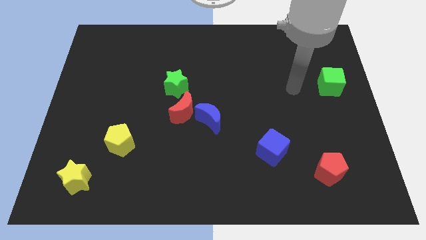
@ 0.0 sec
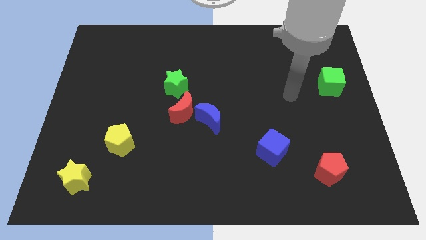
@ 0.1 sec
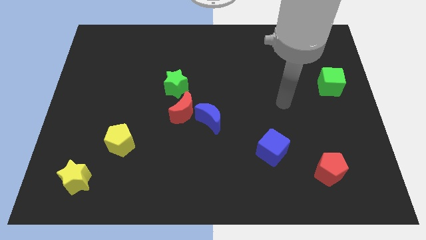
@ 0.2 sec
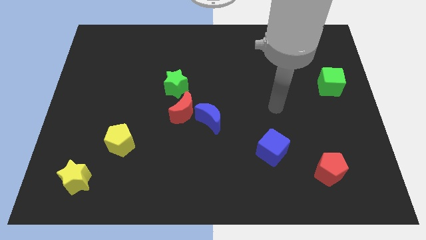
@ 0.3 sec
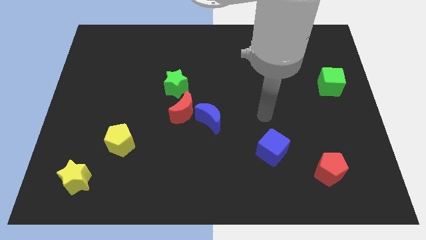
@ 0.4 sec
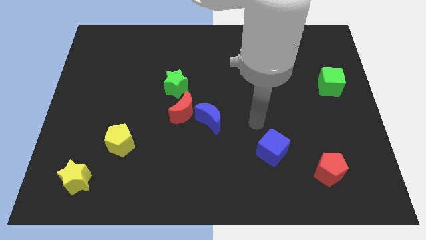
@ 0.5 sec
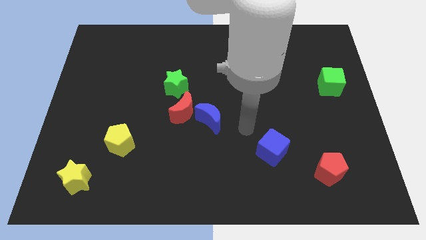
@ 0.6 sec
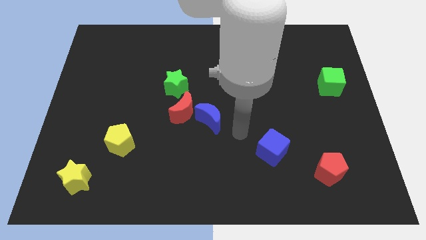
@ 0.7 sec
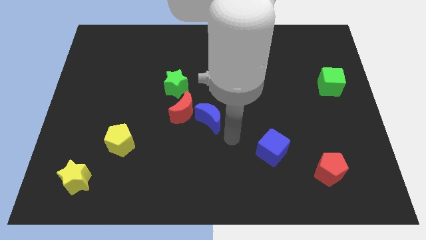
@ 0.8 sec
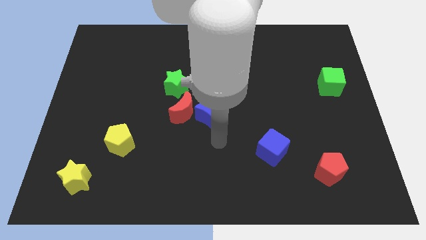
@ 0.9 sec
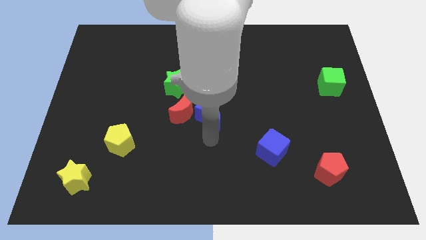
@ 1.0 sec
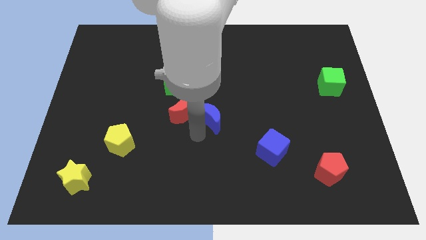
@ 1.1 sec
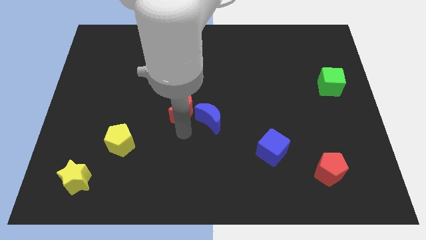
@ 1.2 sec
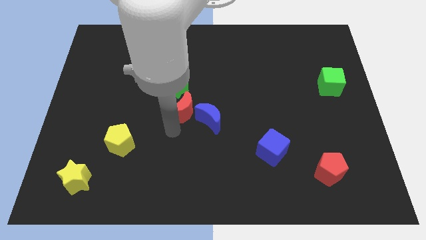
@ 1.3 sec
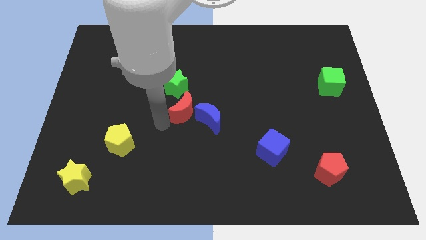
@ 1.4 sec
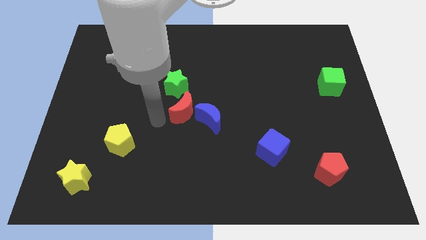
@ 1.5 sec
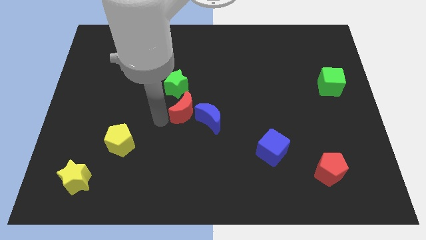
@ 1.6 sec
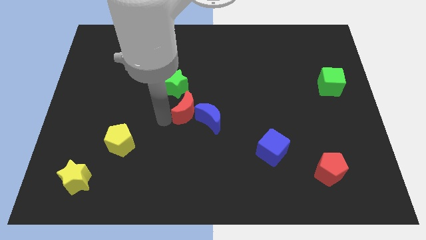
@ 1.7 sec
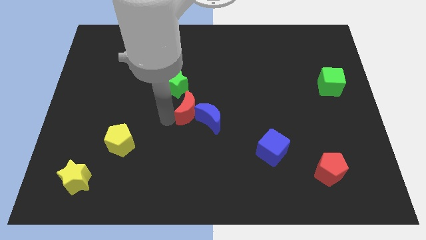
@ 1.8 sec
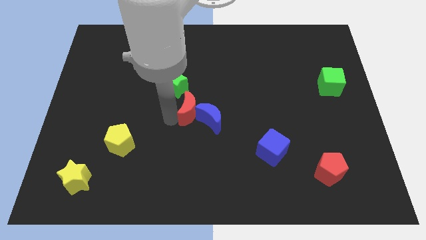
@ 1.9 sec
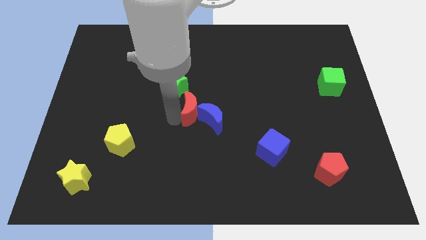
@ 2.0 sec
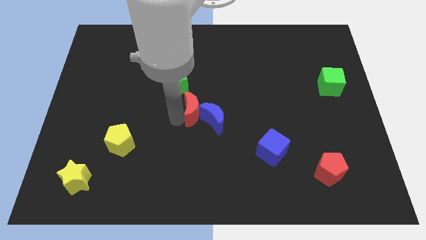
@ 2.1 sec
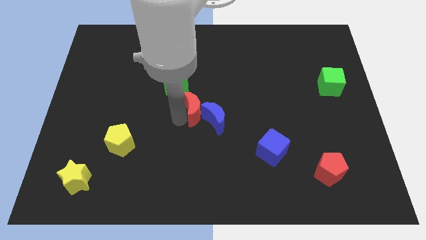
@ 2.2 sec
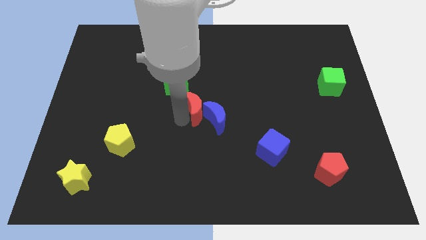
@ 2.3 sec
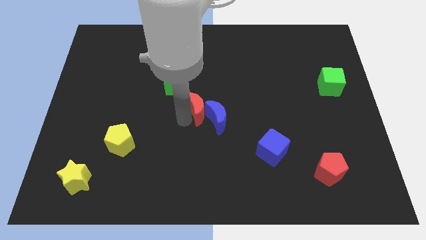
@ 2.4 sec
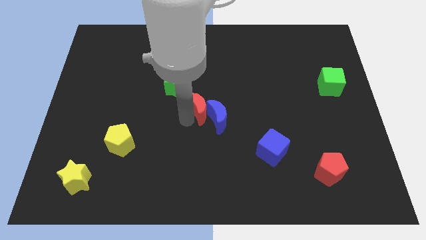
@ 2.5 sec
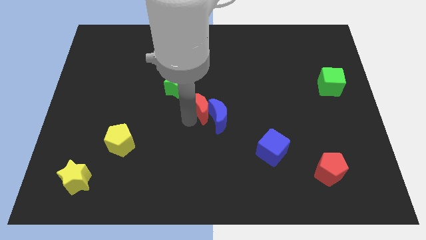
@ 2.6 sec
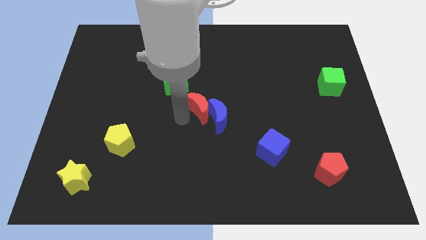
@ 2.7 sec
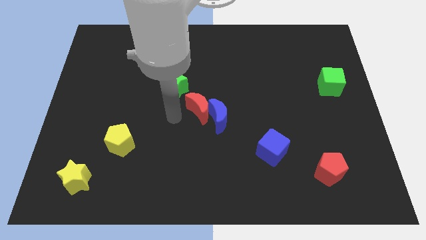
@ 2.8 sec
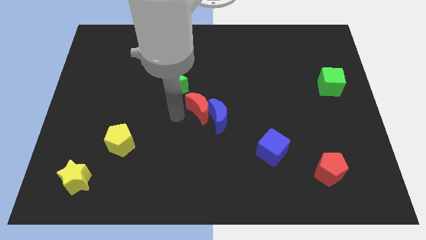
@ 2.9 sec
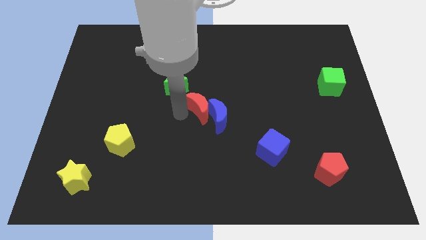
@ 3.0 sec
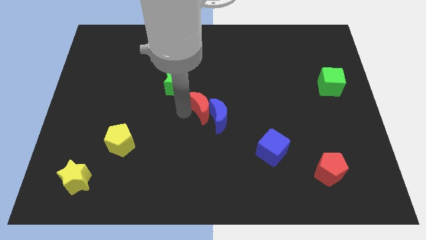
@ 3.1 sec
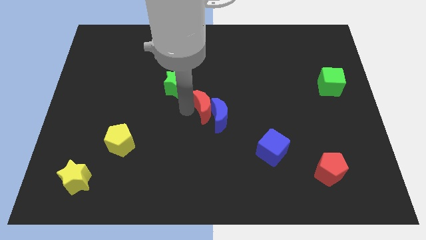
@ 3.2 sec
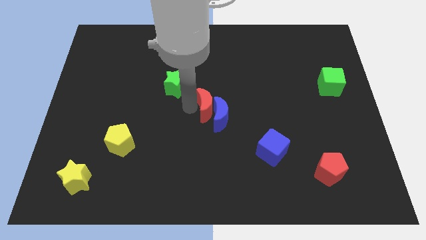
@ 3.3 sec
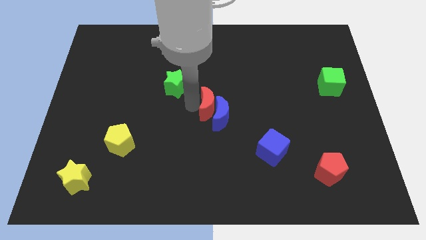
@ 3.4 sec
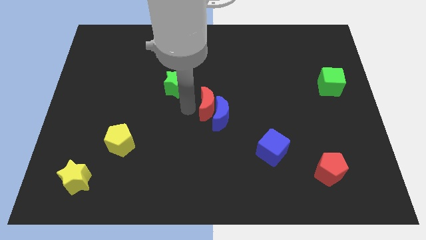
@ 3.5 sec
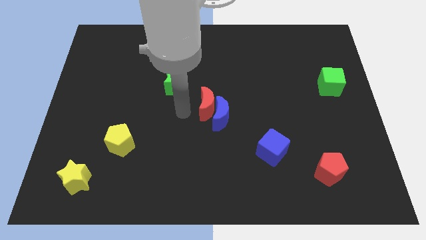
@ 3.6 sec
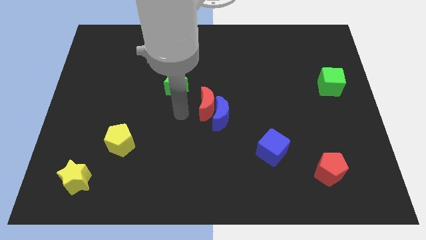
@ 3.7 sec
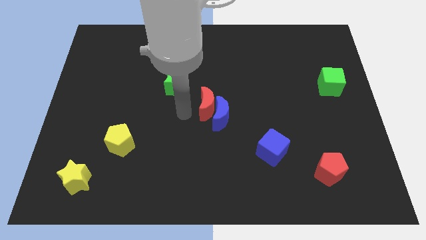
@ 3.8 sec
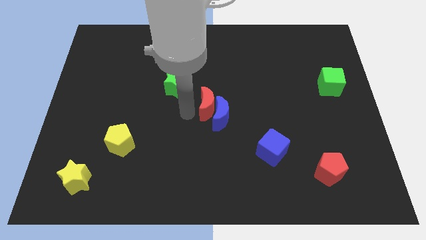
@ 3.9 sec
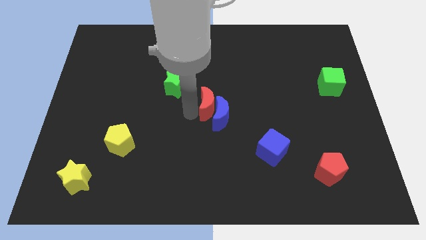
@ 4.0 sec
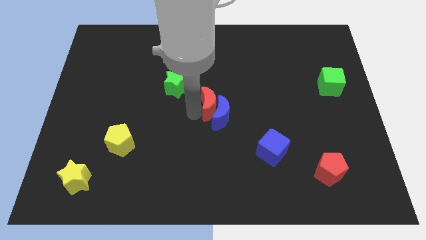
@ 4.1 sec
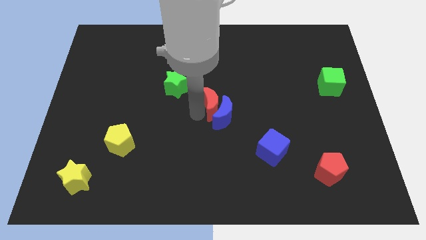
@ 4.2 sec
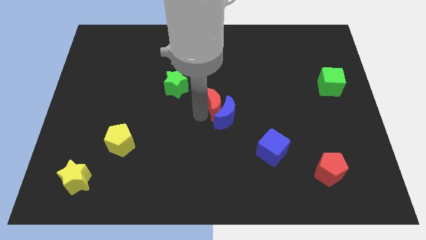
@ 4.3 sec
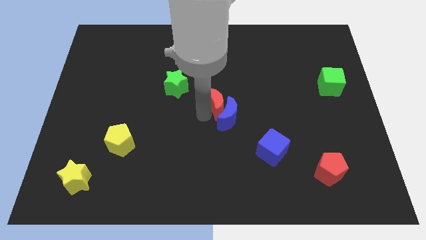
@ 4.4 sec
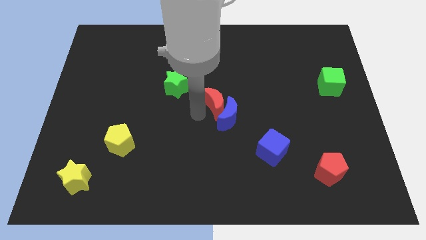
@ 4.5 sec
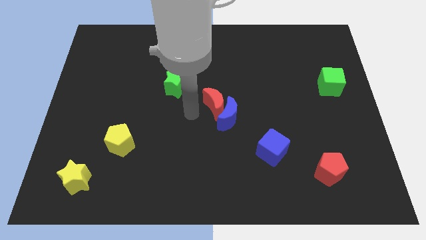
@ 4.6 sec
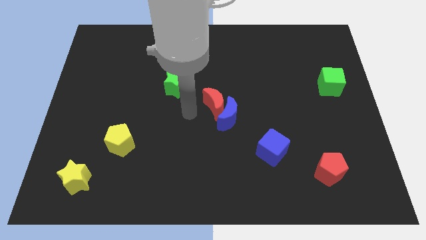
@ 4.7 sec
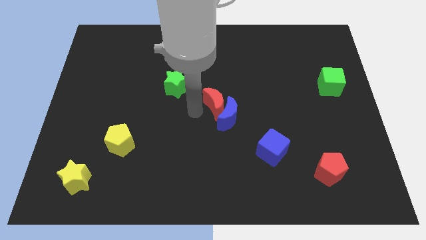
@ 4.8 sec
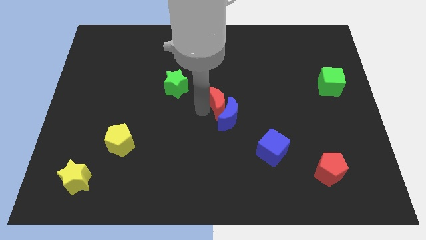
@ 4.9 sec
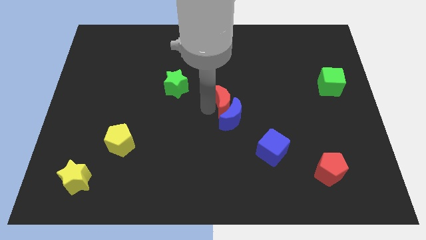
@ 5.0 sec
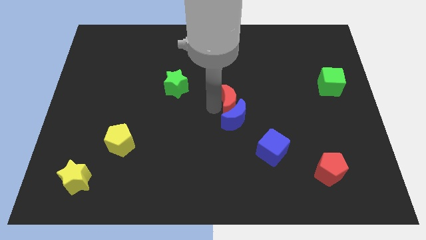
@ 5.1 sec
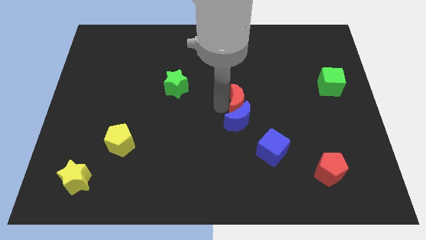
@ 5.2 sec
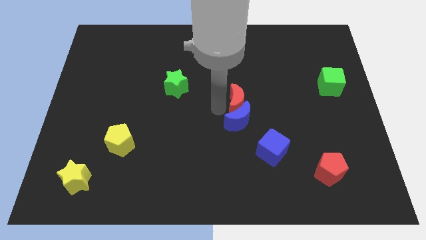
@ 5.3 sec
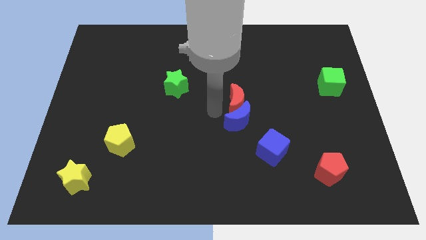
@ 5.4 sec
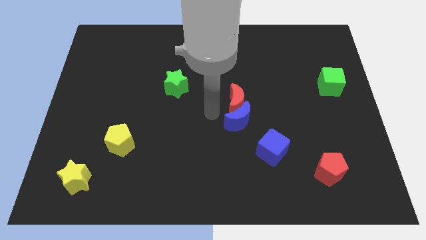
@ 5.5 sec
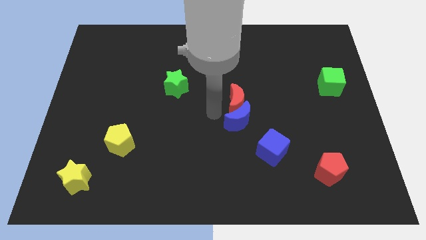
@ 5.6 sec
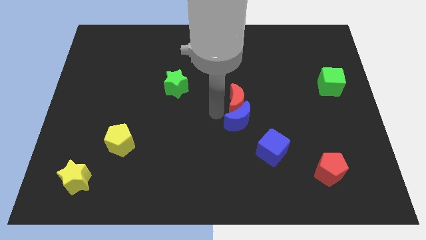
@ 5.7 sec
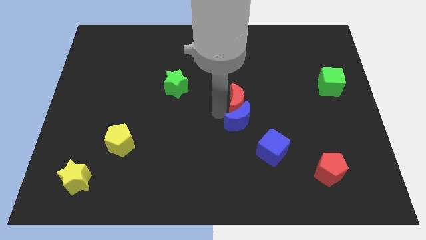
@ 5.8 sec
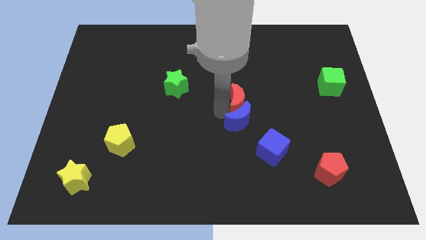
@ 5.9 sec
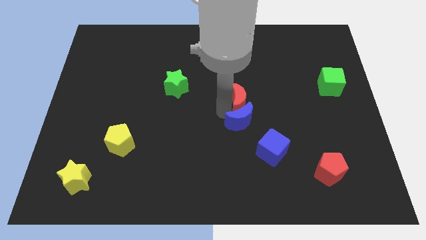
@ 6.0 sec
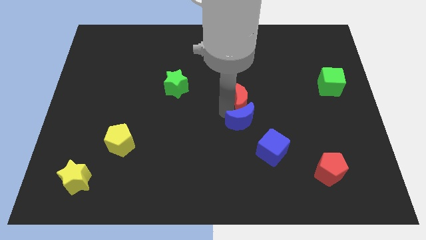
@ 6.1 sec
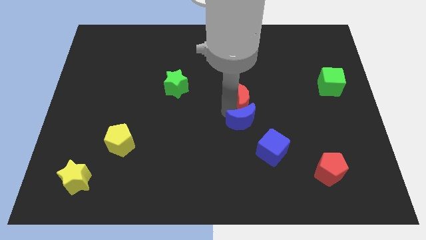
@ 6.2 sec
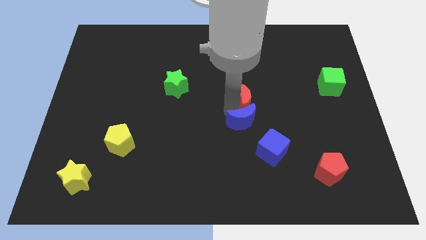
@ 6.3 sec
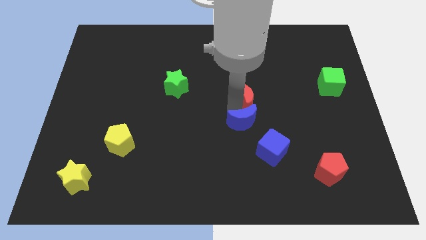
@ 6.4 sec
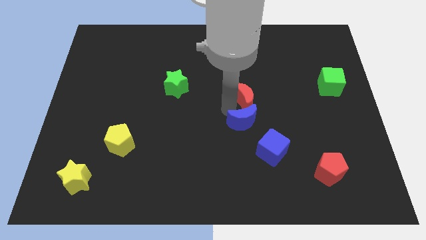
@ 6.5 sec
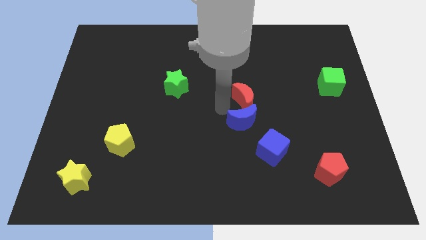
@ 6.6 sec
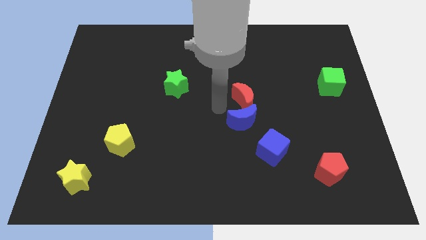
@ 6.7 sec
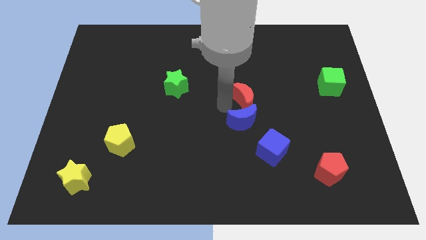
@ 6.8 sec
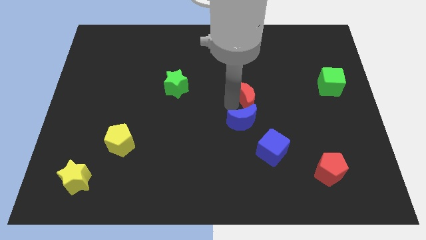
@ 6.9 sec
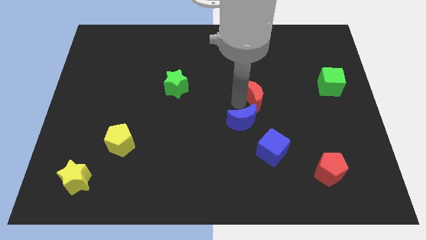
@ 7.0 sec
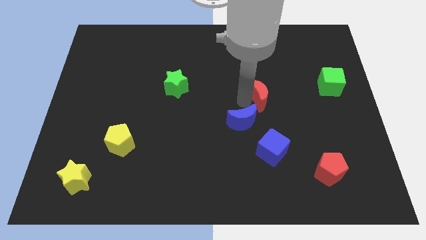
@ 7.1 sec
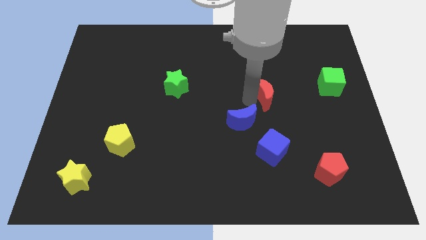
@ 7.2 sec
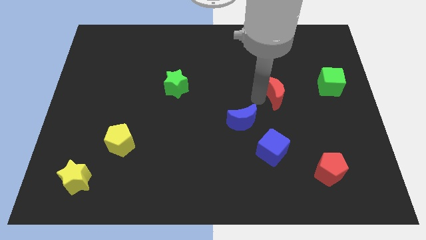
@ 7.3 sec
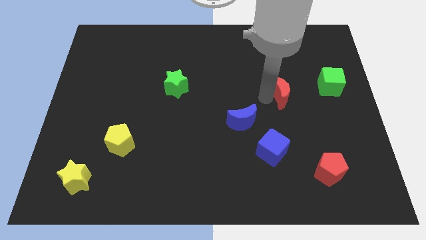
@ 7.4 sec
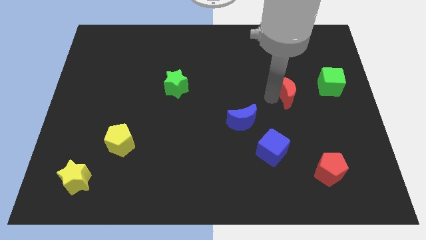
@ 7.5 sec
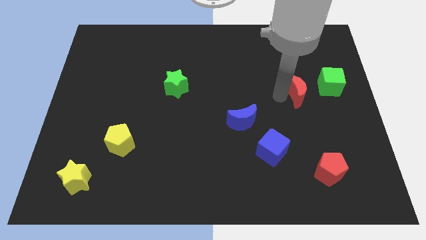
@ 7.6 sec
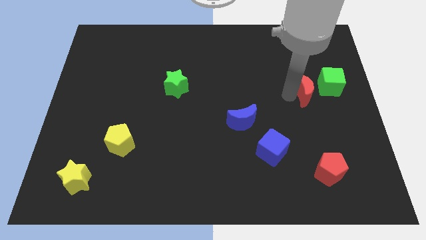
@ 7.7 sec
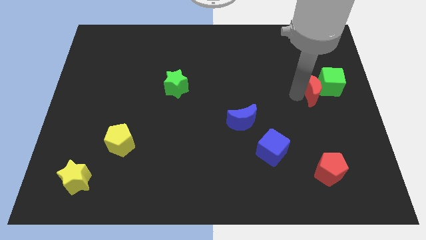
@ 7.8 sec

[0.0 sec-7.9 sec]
slide the red moon close to the green cube
